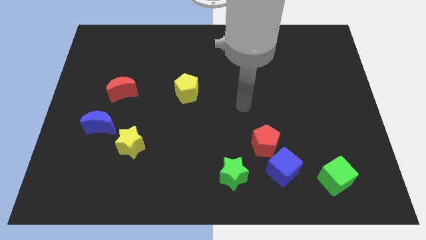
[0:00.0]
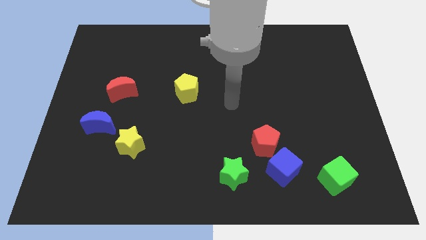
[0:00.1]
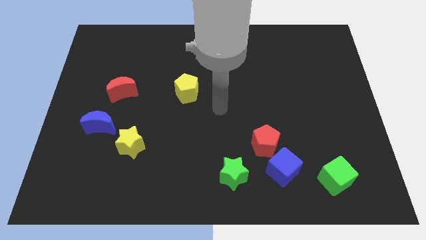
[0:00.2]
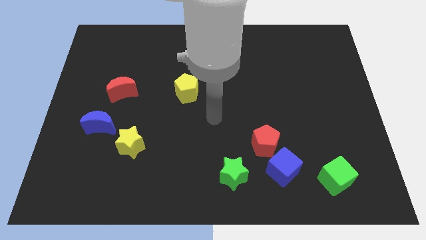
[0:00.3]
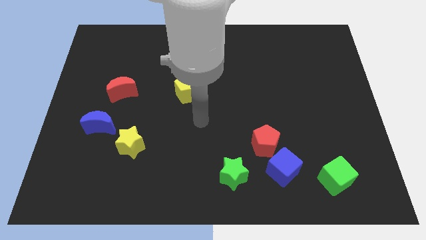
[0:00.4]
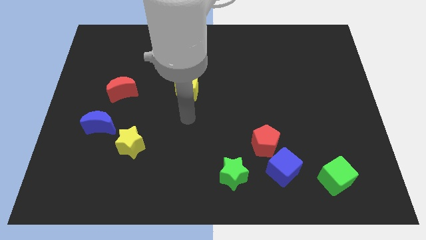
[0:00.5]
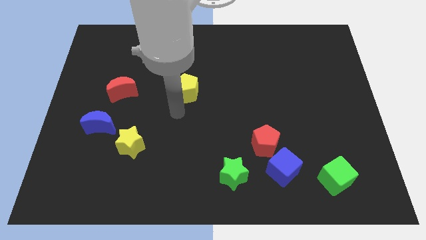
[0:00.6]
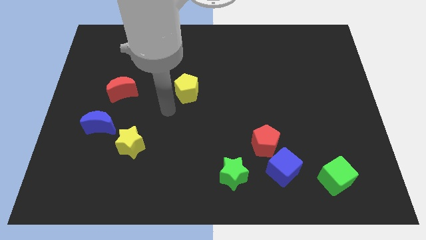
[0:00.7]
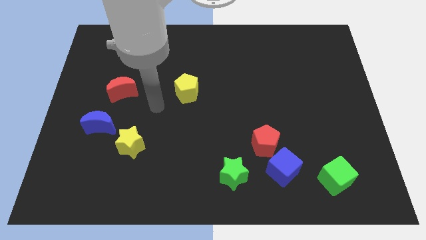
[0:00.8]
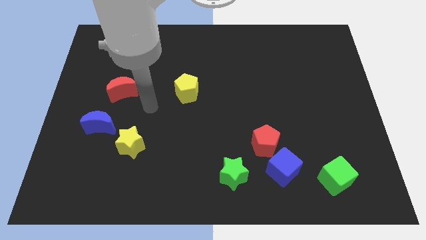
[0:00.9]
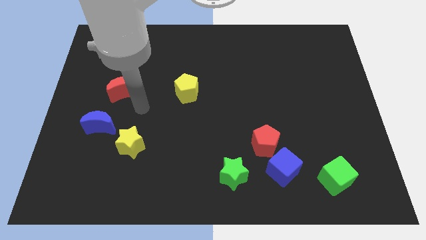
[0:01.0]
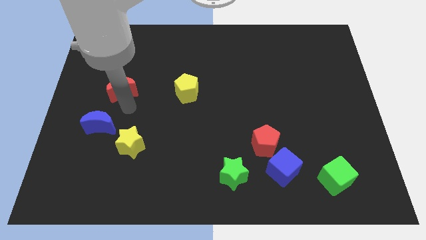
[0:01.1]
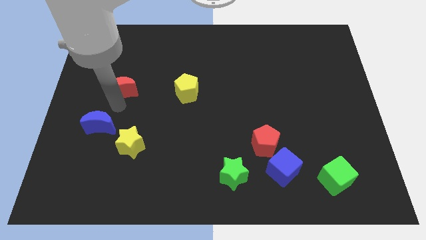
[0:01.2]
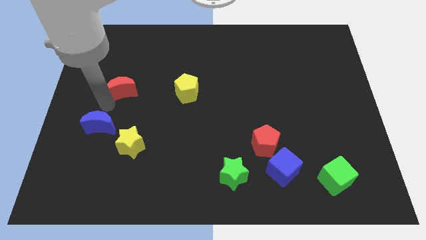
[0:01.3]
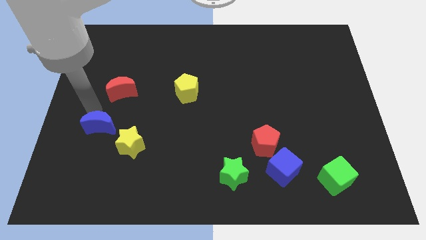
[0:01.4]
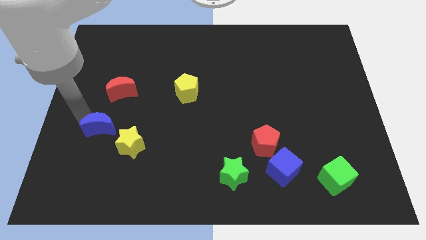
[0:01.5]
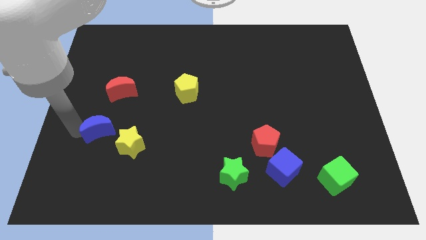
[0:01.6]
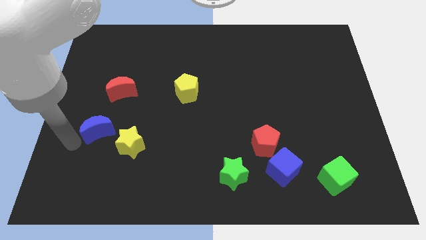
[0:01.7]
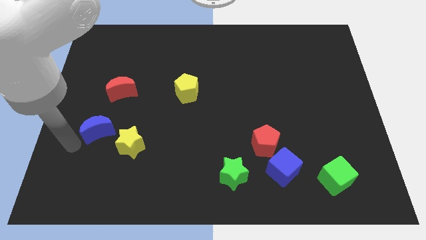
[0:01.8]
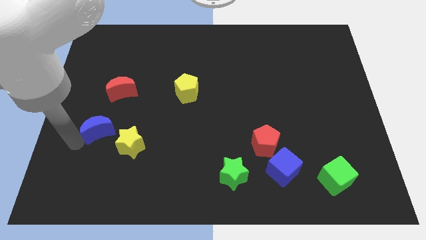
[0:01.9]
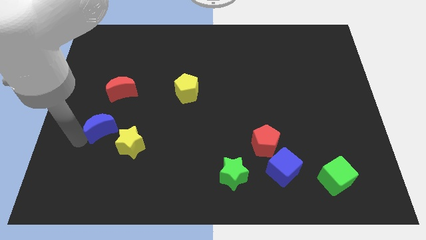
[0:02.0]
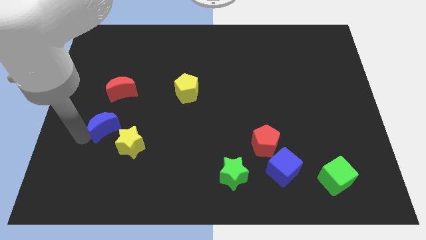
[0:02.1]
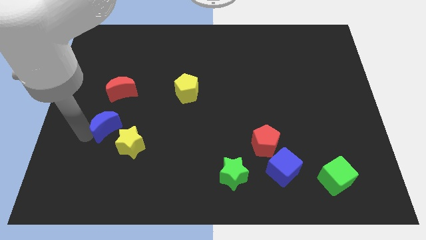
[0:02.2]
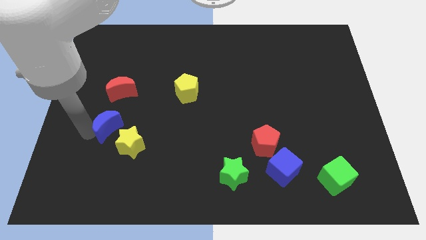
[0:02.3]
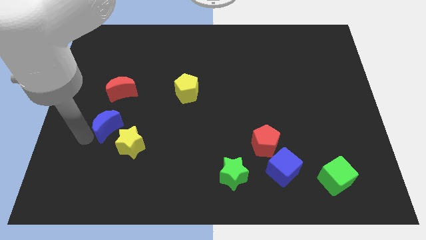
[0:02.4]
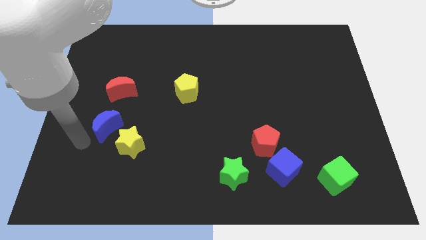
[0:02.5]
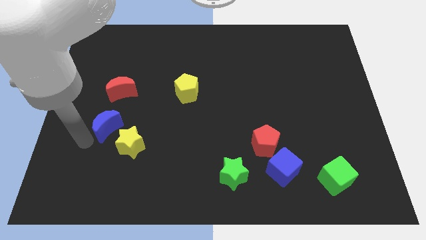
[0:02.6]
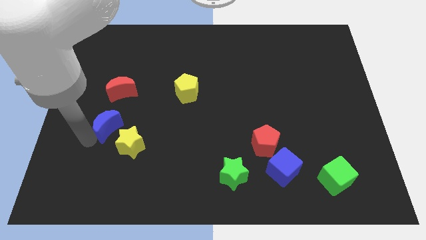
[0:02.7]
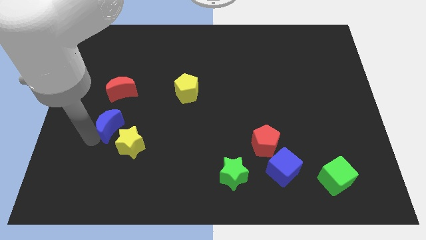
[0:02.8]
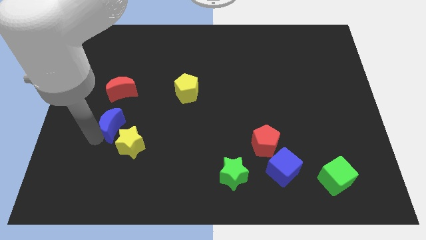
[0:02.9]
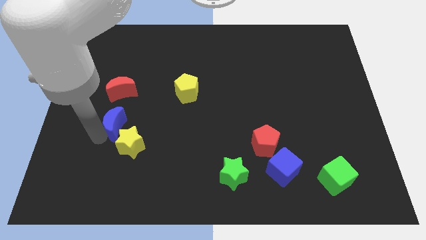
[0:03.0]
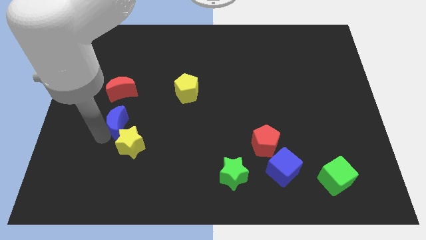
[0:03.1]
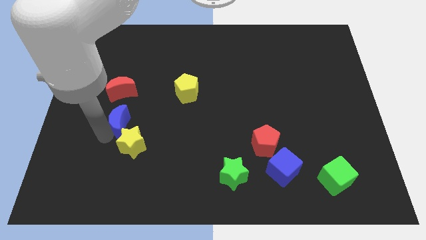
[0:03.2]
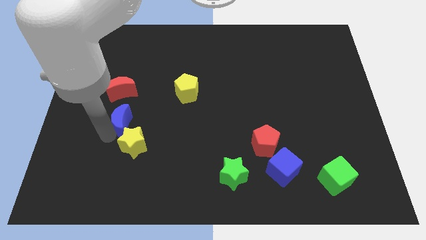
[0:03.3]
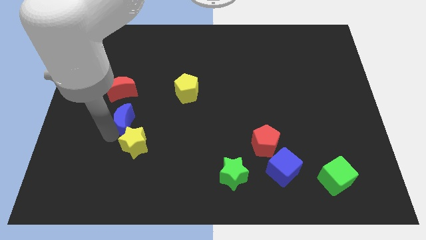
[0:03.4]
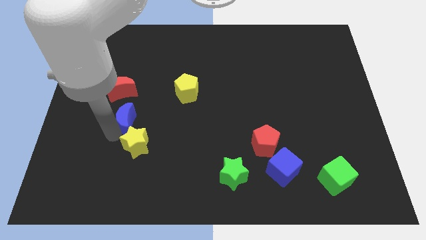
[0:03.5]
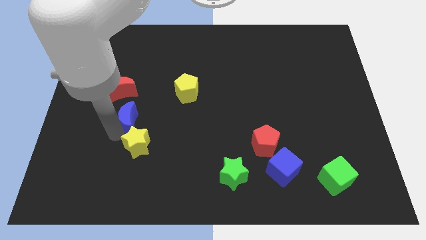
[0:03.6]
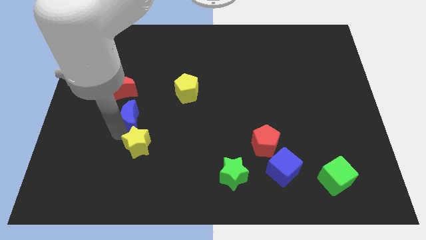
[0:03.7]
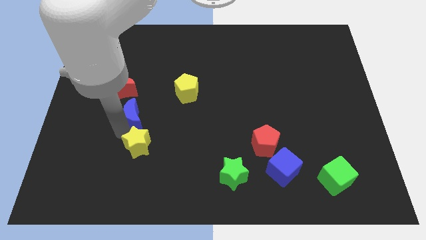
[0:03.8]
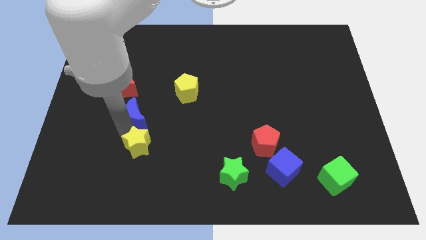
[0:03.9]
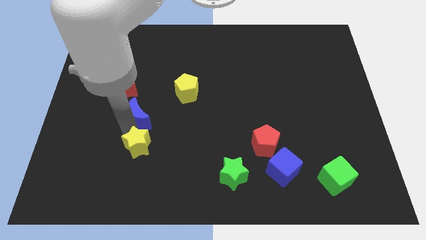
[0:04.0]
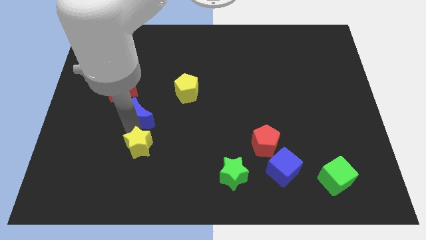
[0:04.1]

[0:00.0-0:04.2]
slightly move the blue moon up and then to the right

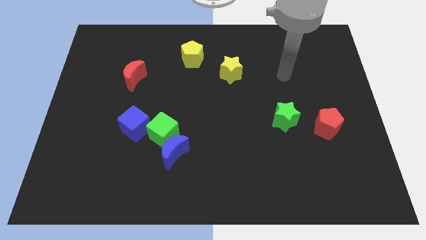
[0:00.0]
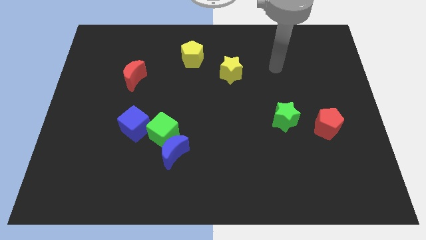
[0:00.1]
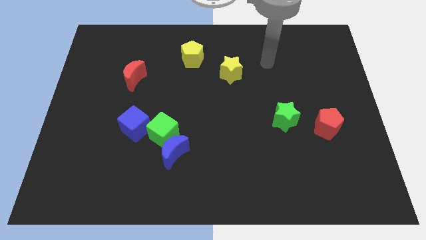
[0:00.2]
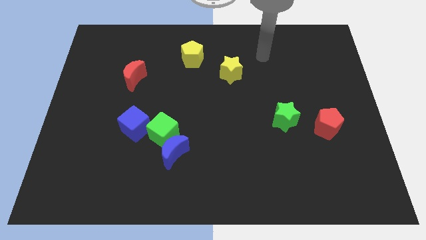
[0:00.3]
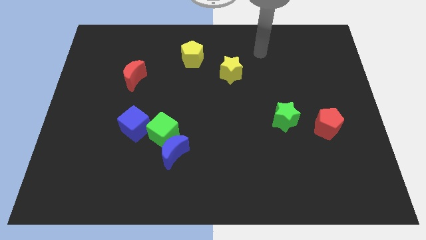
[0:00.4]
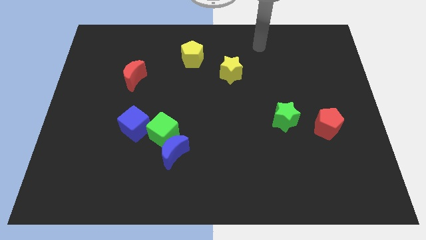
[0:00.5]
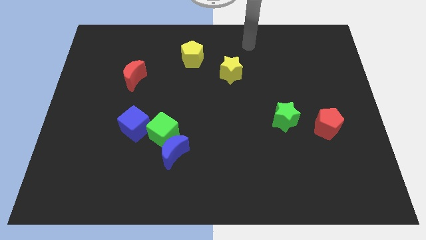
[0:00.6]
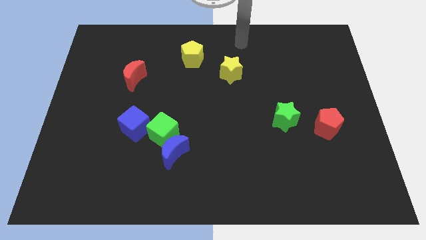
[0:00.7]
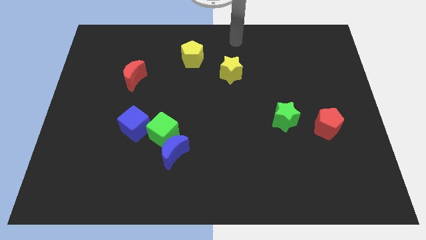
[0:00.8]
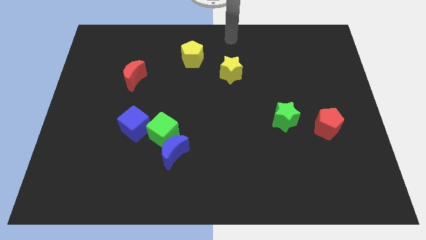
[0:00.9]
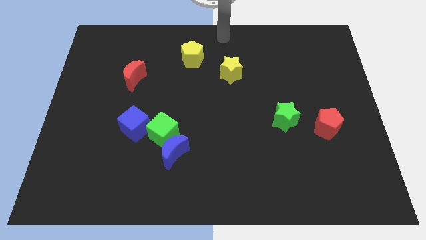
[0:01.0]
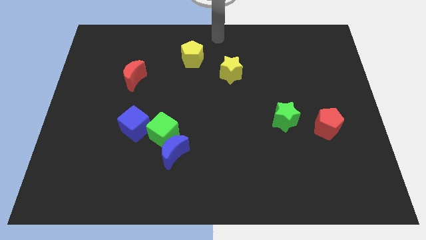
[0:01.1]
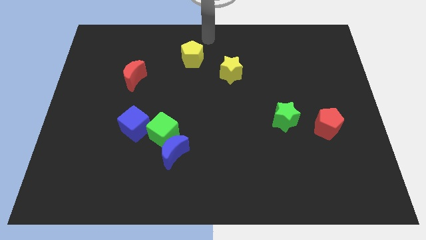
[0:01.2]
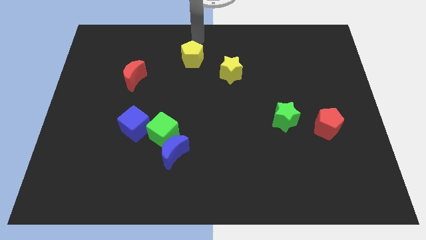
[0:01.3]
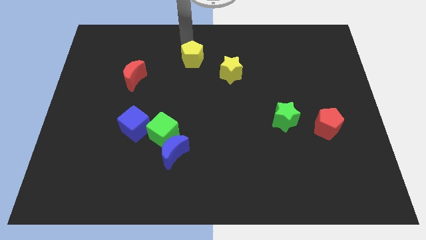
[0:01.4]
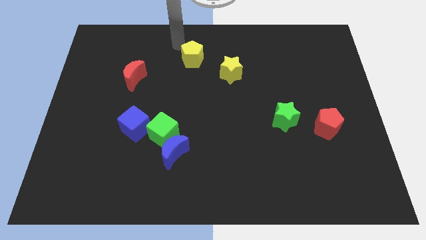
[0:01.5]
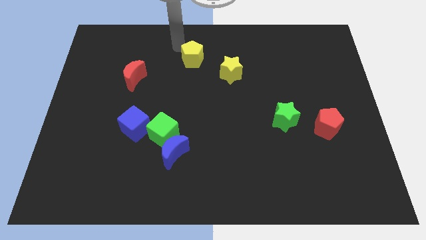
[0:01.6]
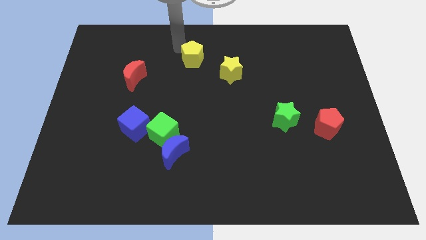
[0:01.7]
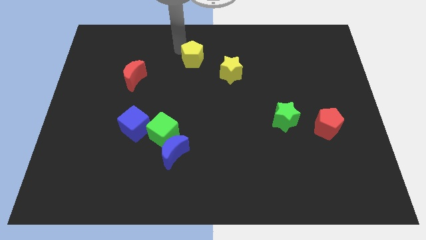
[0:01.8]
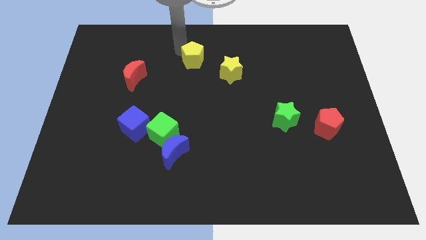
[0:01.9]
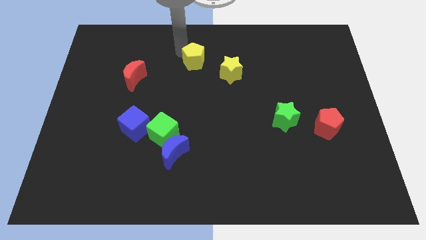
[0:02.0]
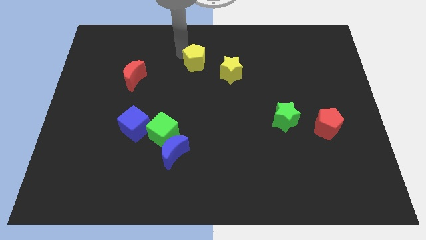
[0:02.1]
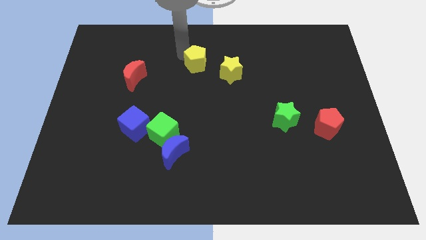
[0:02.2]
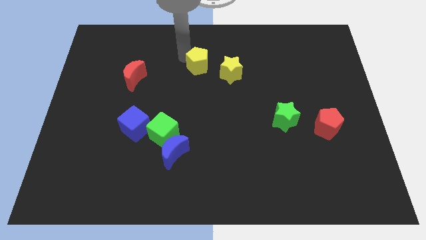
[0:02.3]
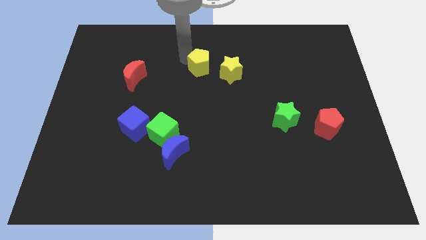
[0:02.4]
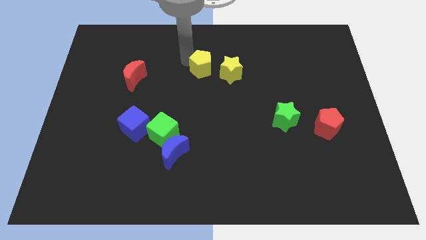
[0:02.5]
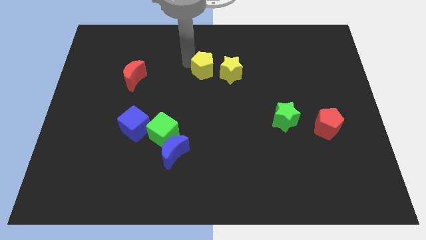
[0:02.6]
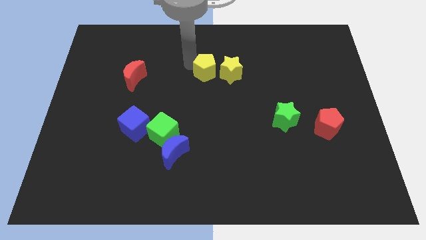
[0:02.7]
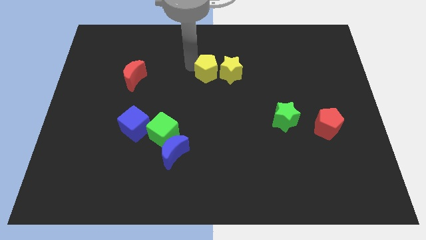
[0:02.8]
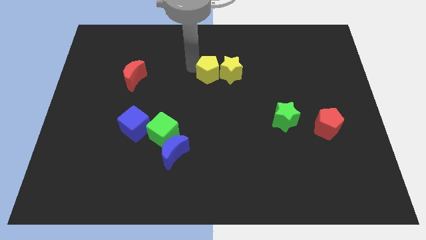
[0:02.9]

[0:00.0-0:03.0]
slightly move the yellow pentagon downwards and to the right diagonally

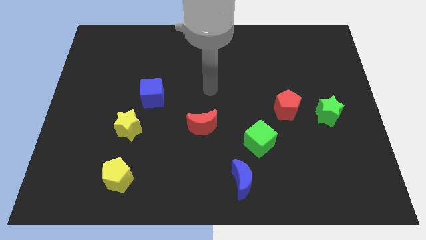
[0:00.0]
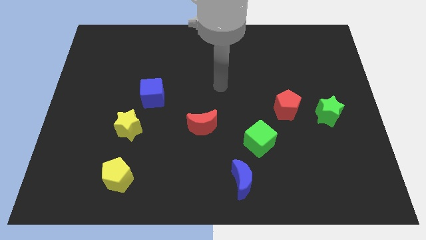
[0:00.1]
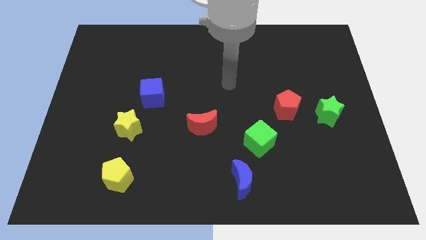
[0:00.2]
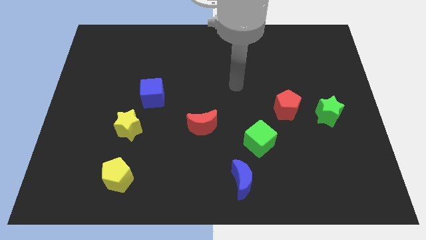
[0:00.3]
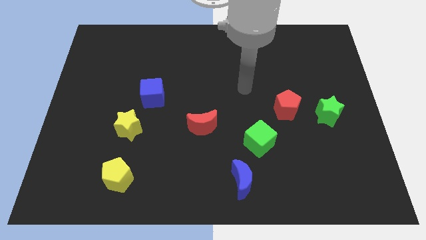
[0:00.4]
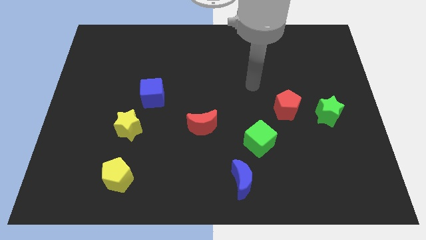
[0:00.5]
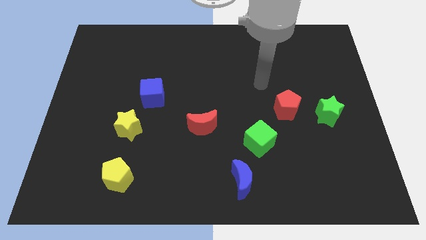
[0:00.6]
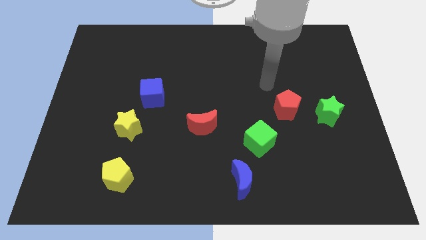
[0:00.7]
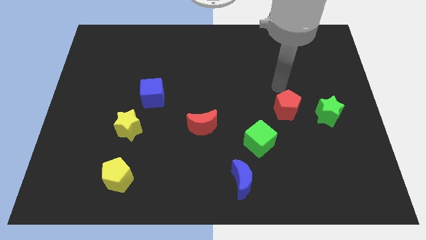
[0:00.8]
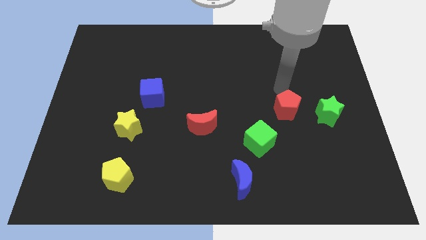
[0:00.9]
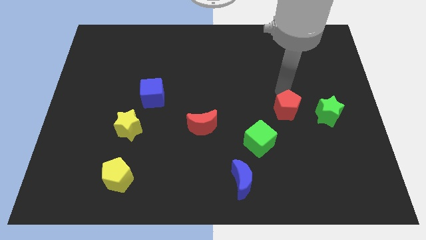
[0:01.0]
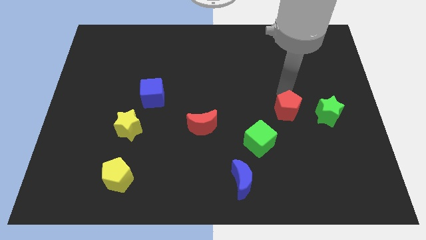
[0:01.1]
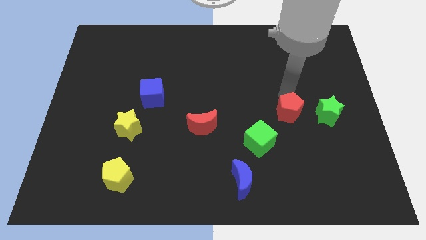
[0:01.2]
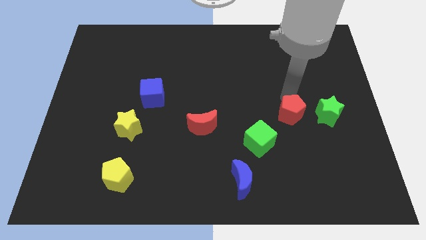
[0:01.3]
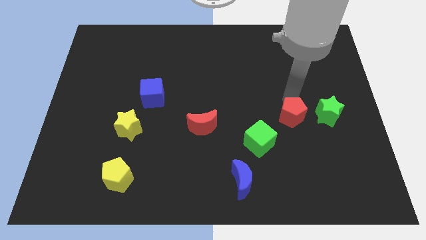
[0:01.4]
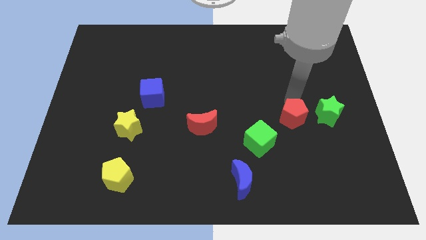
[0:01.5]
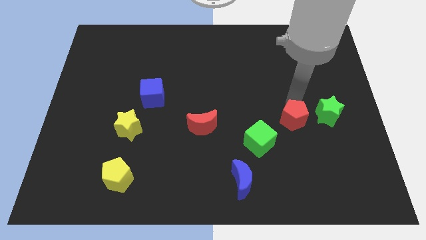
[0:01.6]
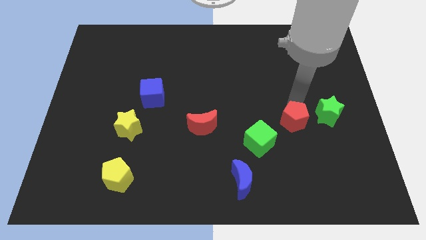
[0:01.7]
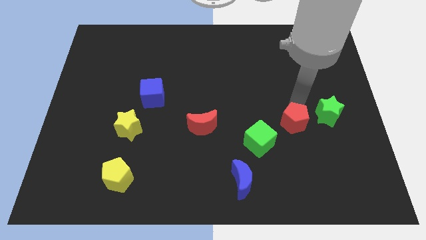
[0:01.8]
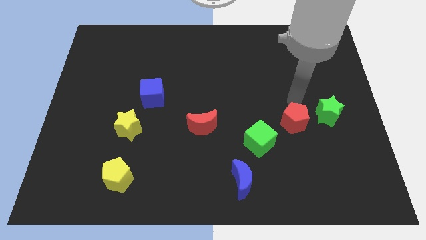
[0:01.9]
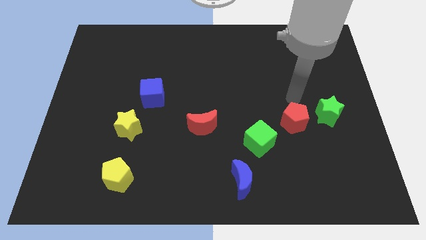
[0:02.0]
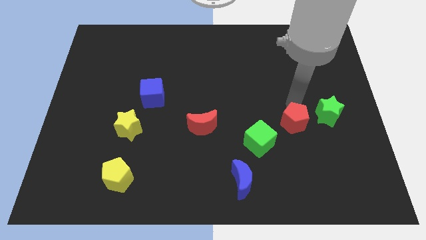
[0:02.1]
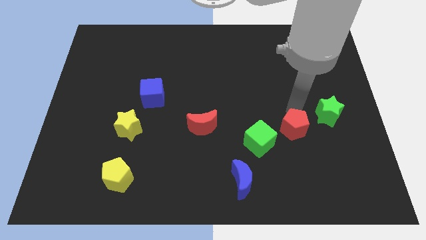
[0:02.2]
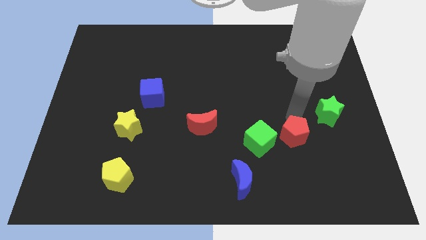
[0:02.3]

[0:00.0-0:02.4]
push the red pentagon a bit downwards
